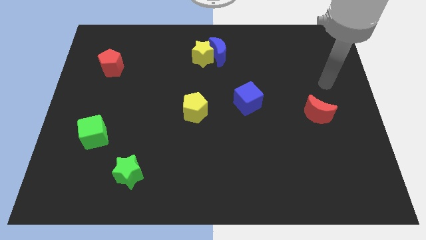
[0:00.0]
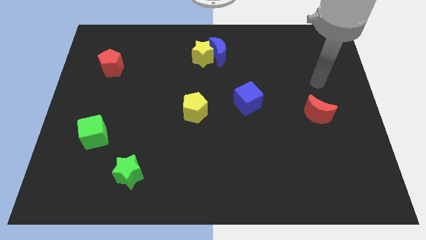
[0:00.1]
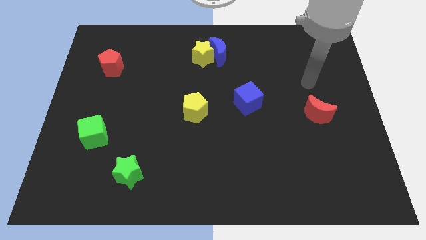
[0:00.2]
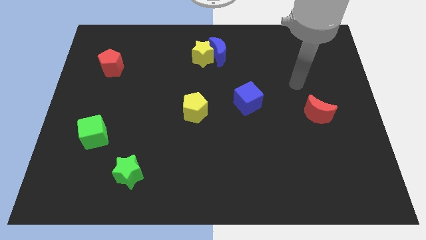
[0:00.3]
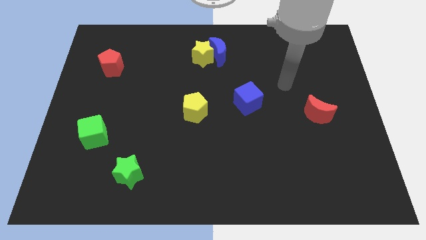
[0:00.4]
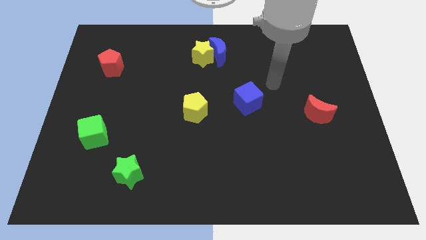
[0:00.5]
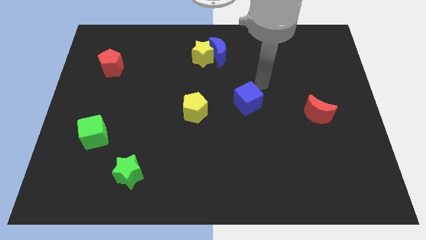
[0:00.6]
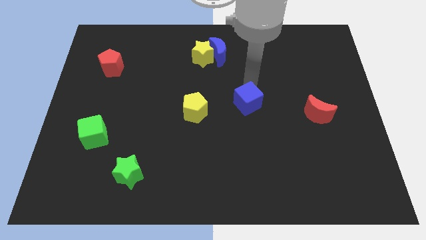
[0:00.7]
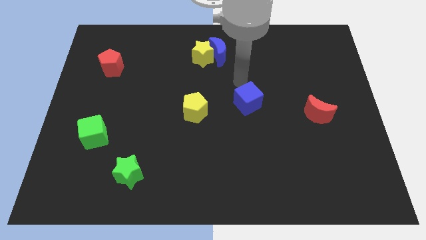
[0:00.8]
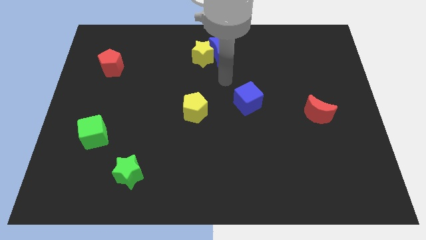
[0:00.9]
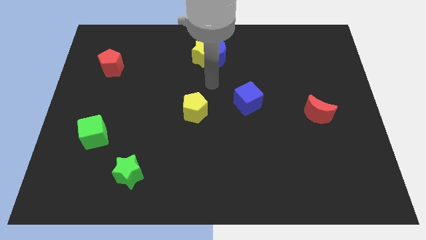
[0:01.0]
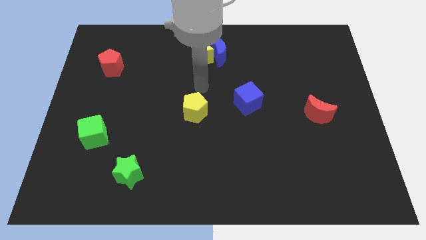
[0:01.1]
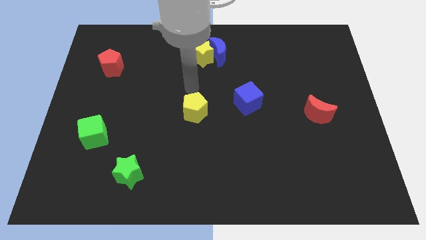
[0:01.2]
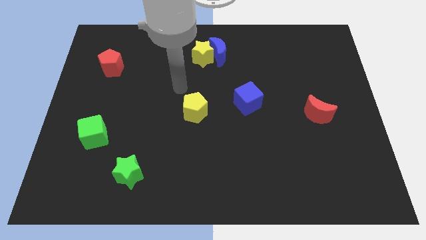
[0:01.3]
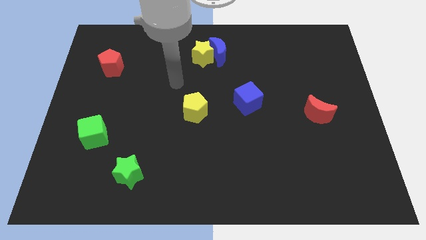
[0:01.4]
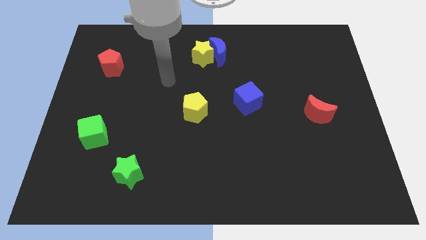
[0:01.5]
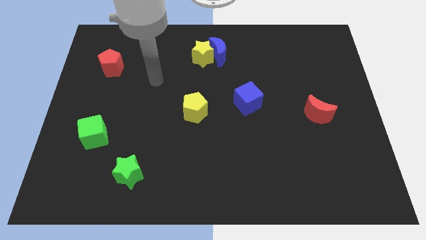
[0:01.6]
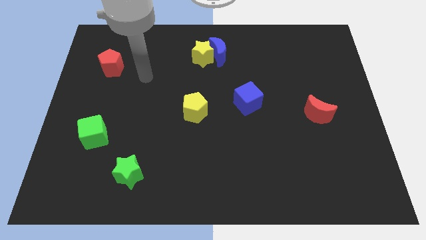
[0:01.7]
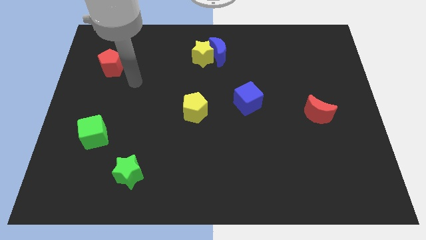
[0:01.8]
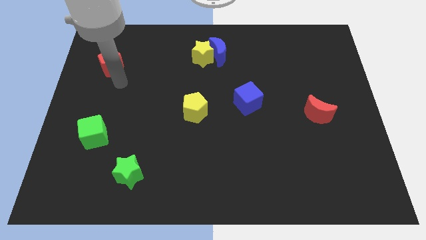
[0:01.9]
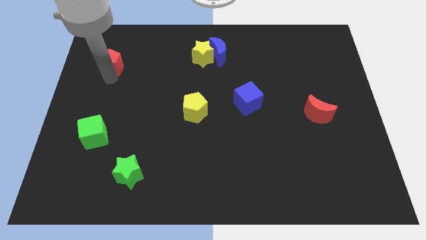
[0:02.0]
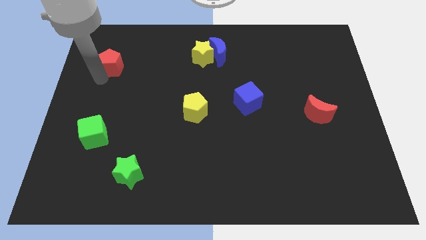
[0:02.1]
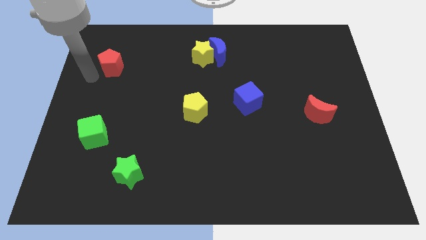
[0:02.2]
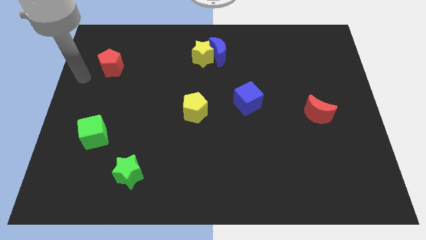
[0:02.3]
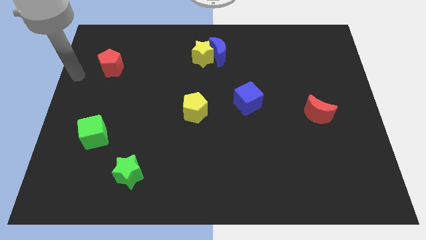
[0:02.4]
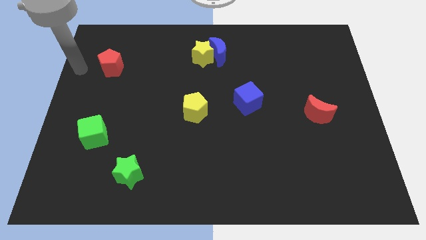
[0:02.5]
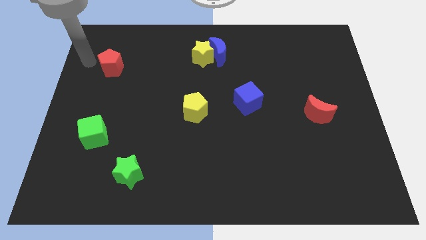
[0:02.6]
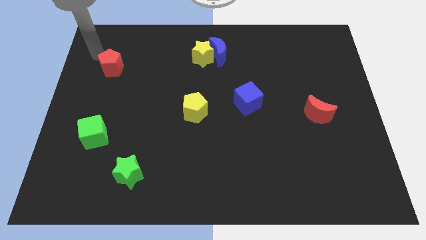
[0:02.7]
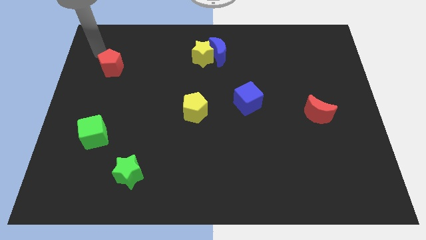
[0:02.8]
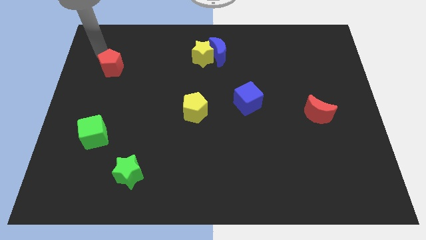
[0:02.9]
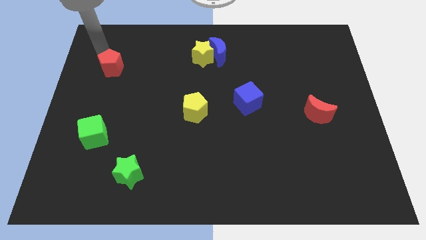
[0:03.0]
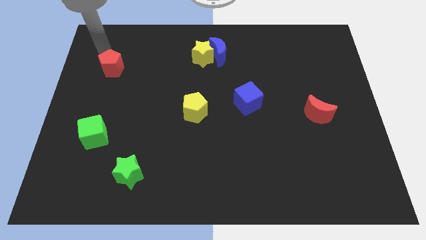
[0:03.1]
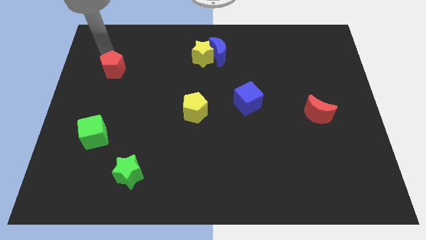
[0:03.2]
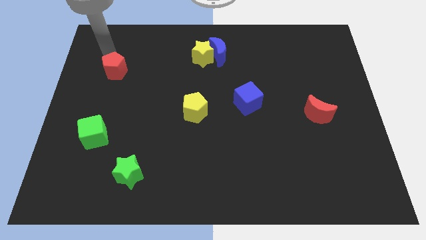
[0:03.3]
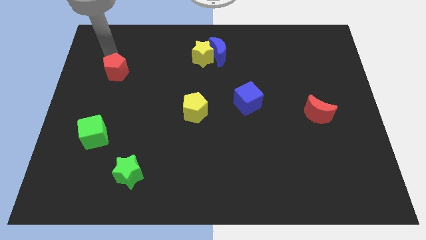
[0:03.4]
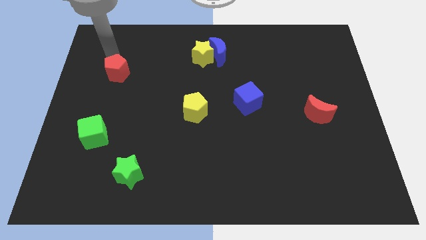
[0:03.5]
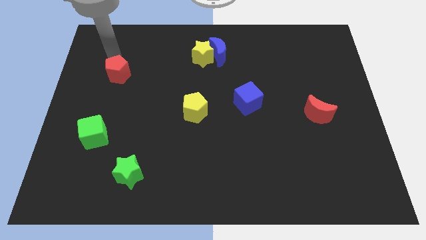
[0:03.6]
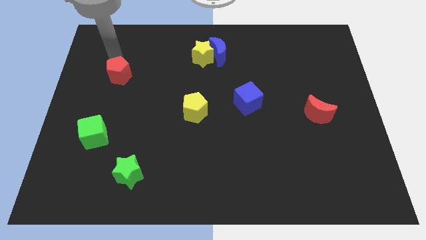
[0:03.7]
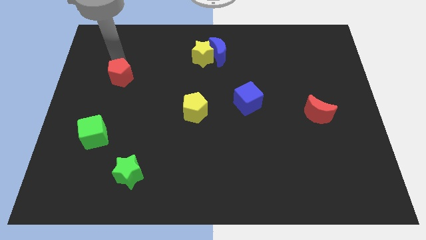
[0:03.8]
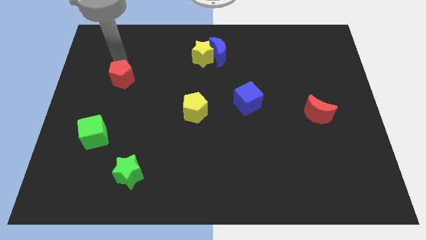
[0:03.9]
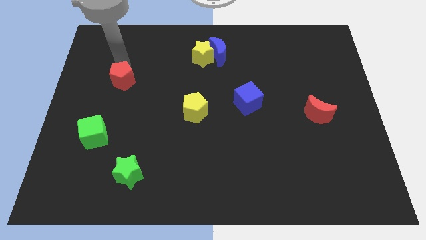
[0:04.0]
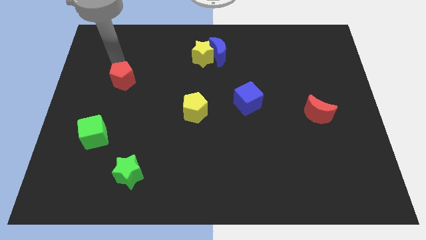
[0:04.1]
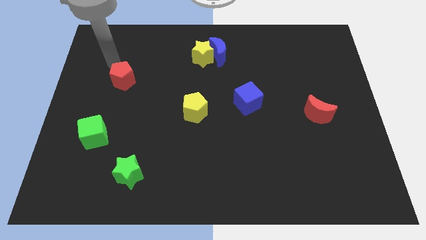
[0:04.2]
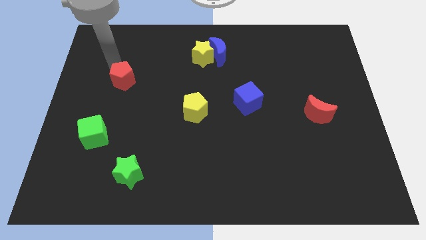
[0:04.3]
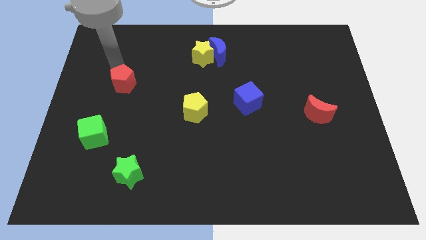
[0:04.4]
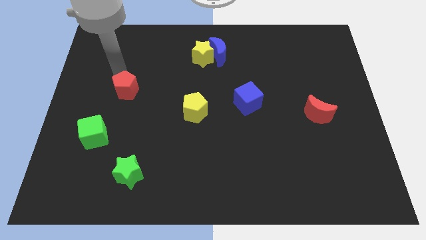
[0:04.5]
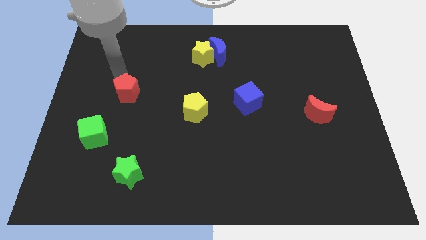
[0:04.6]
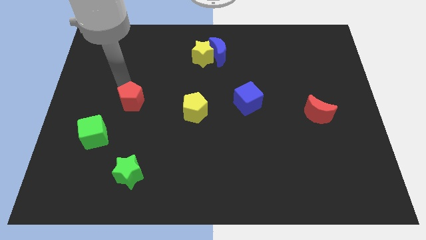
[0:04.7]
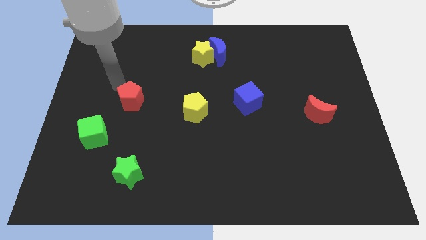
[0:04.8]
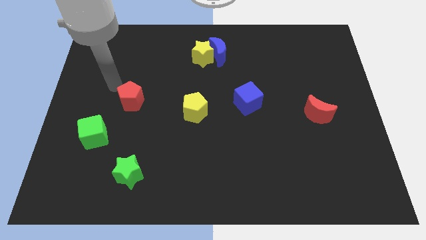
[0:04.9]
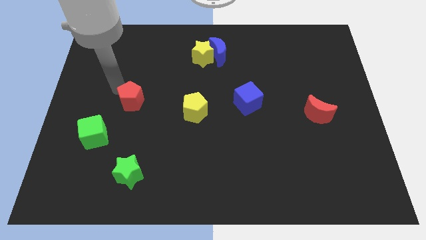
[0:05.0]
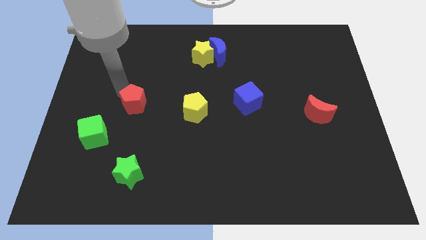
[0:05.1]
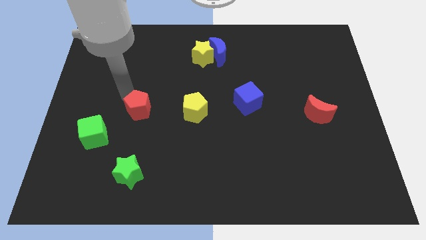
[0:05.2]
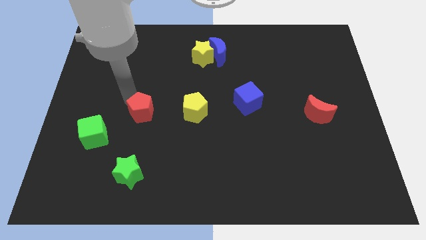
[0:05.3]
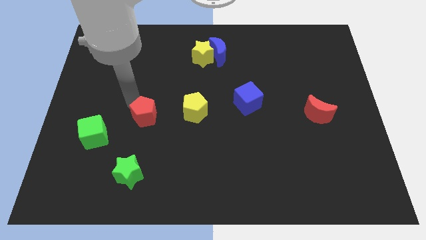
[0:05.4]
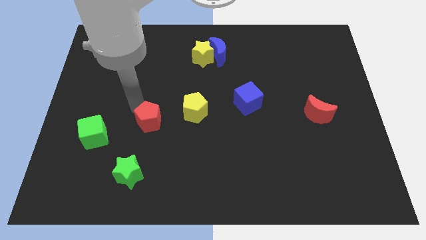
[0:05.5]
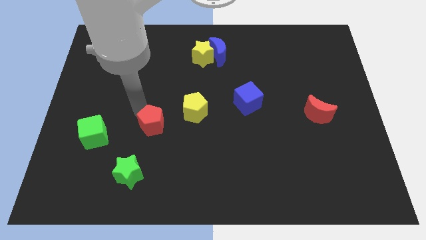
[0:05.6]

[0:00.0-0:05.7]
slide the red pentagon down and right diagonally

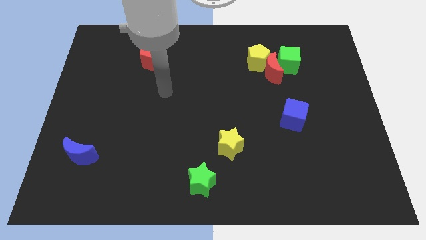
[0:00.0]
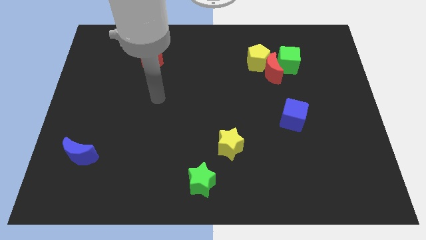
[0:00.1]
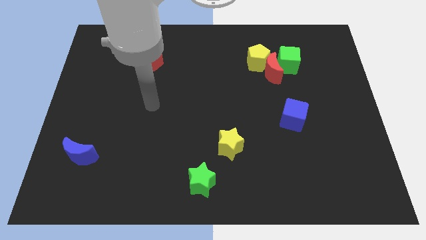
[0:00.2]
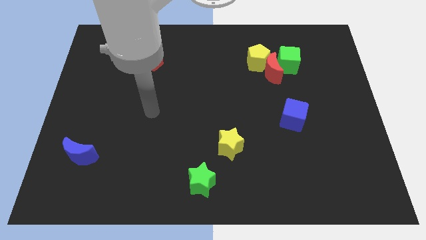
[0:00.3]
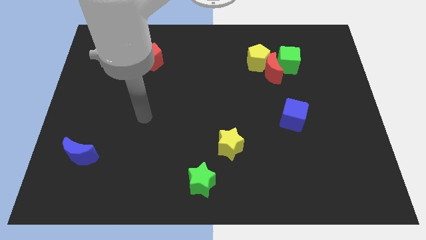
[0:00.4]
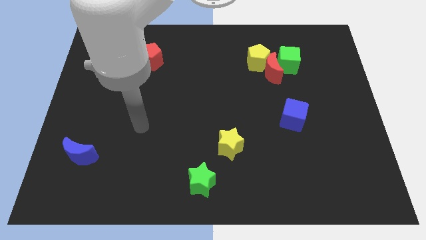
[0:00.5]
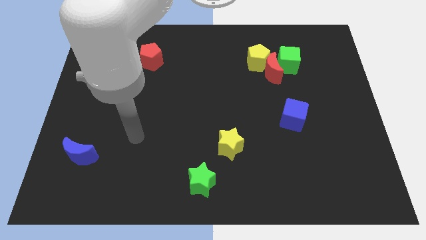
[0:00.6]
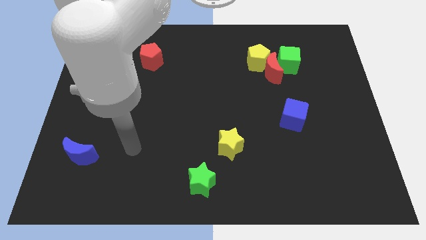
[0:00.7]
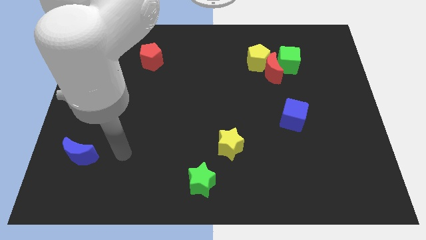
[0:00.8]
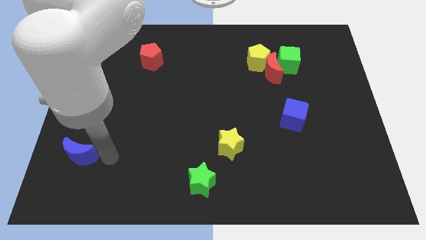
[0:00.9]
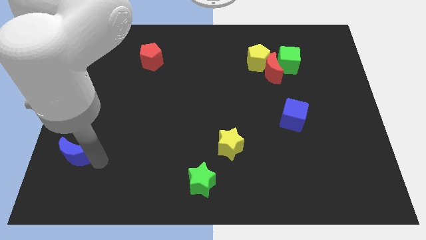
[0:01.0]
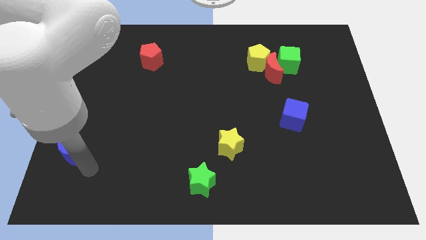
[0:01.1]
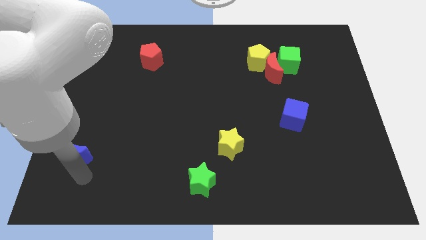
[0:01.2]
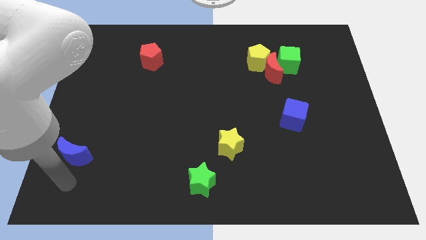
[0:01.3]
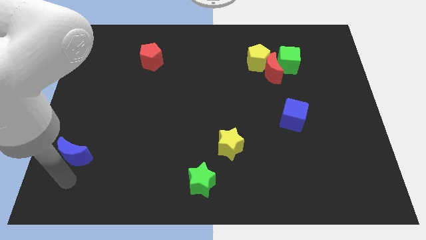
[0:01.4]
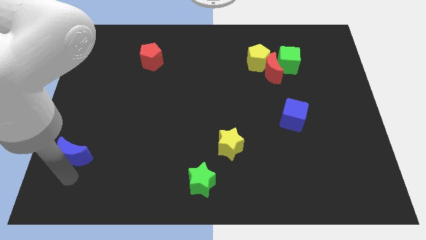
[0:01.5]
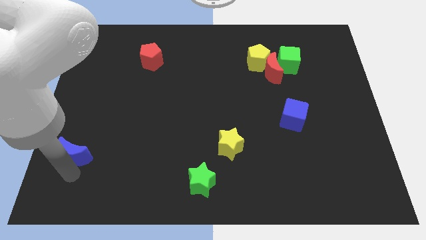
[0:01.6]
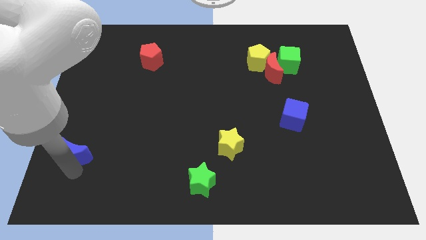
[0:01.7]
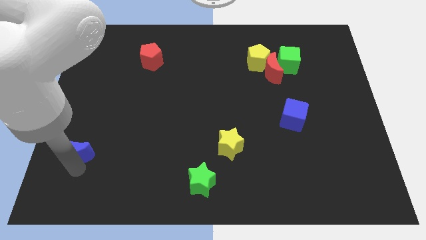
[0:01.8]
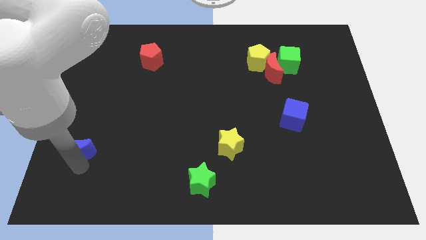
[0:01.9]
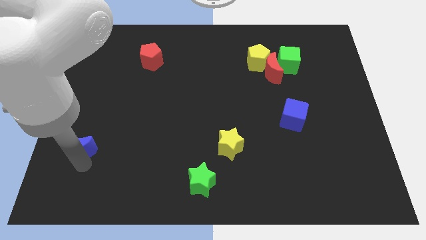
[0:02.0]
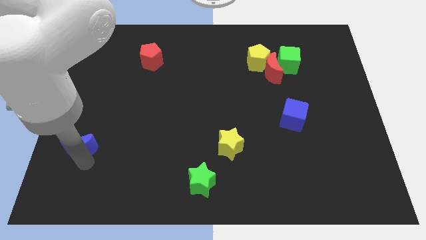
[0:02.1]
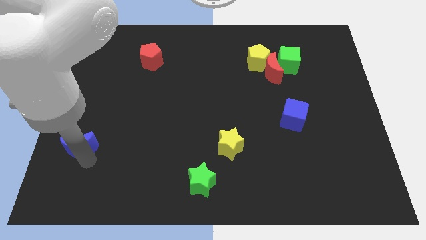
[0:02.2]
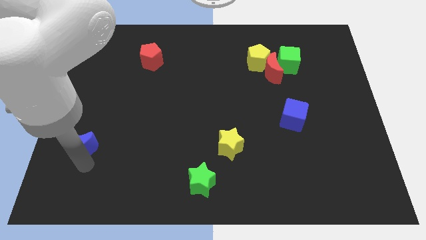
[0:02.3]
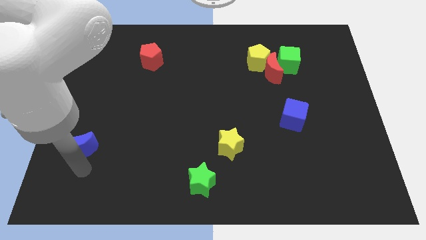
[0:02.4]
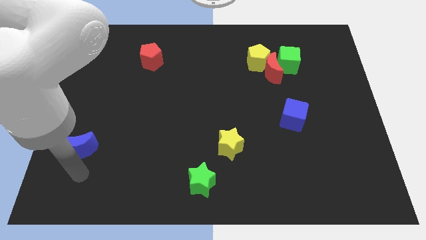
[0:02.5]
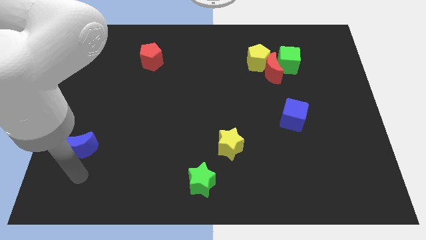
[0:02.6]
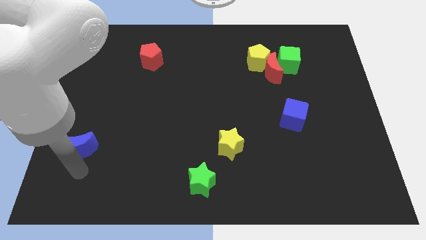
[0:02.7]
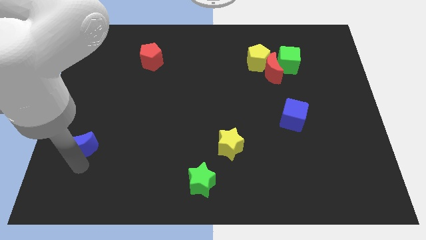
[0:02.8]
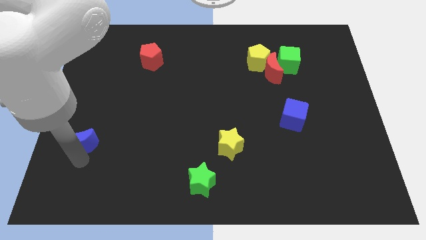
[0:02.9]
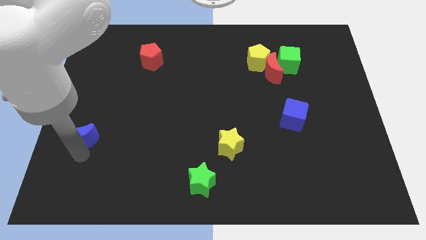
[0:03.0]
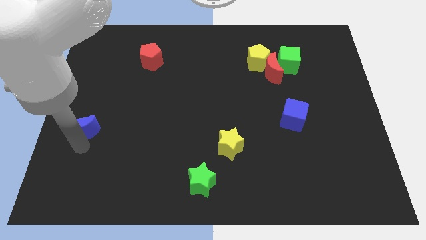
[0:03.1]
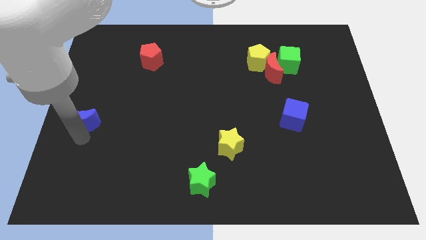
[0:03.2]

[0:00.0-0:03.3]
push the blue moon a bit up
